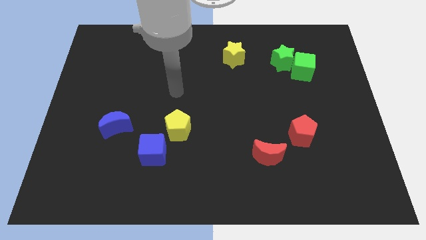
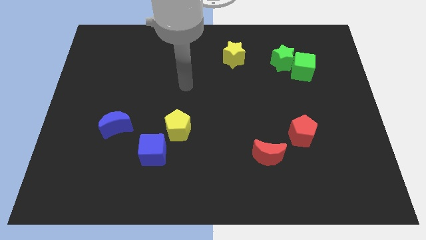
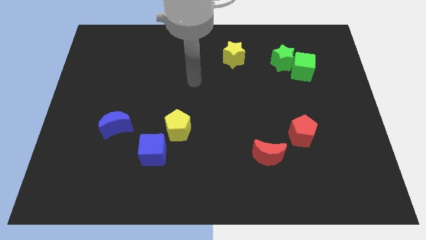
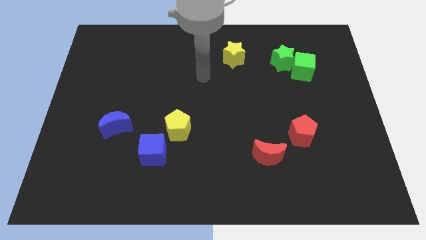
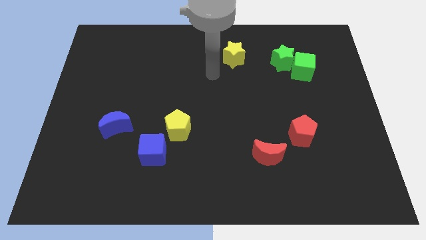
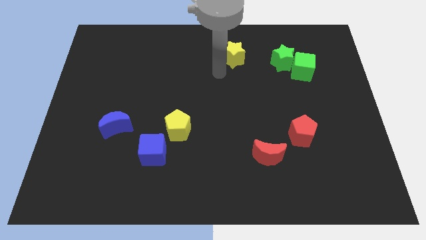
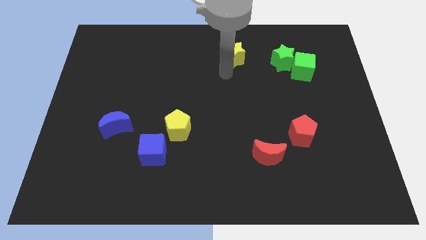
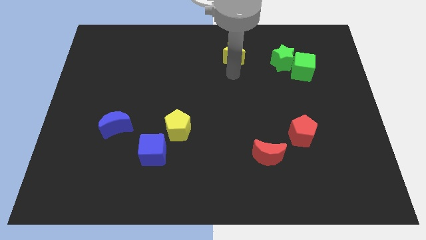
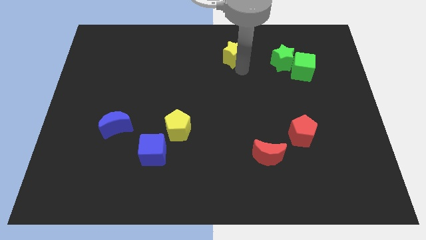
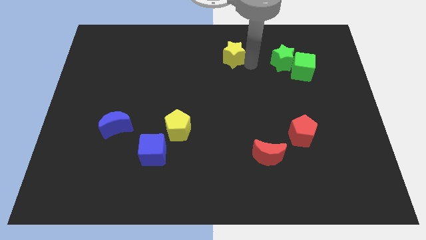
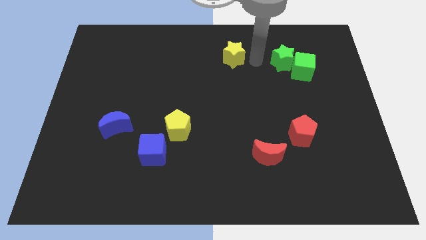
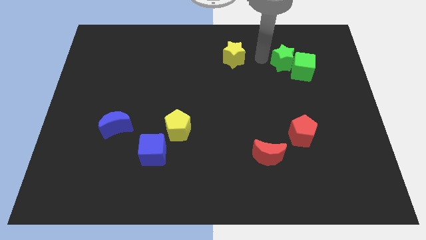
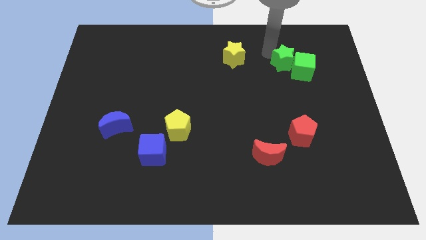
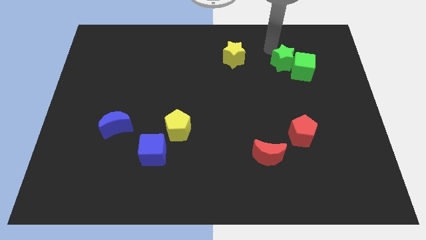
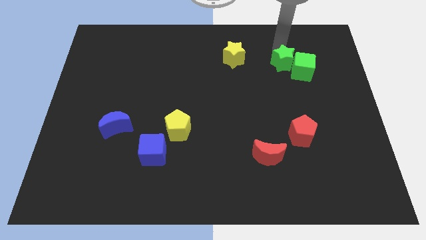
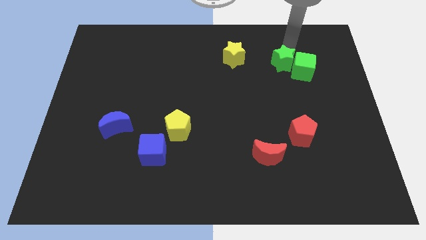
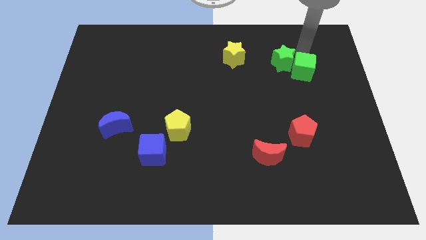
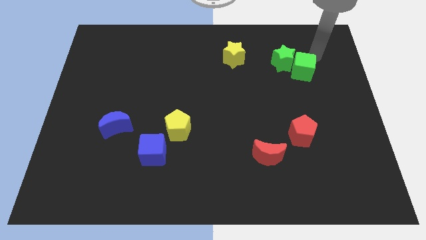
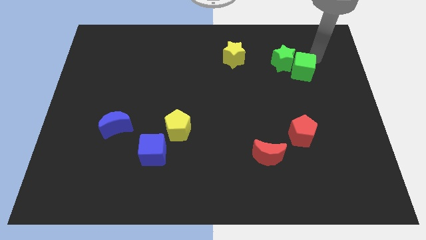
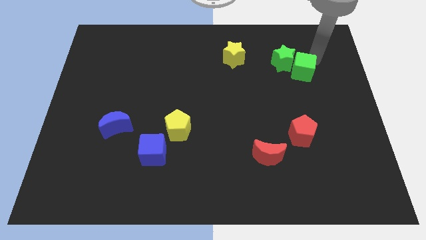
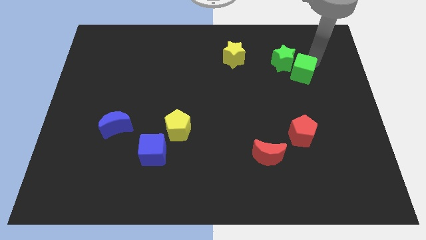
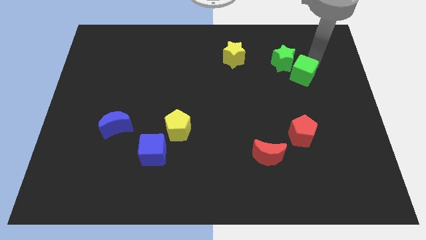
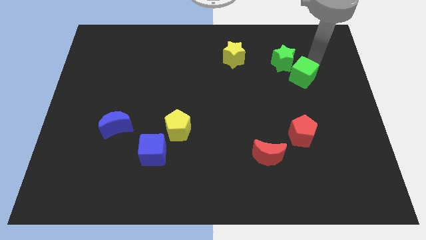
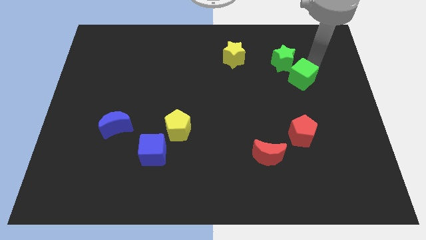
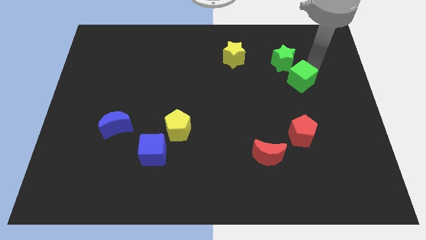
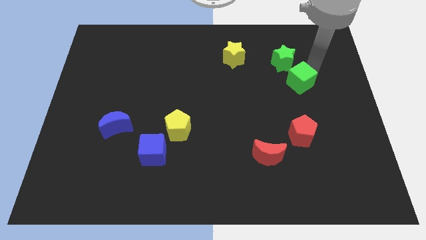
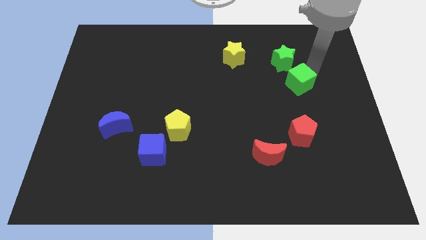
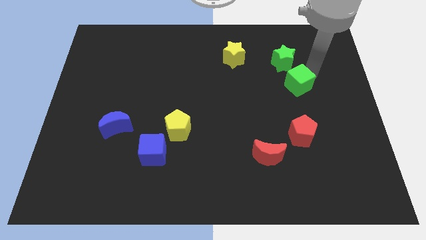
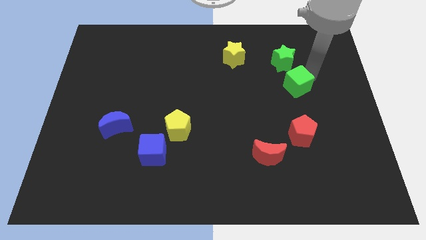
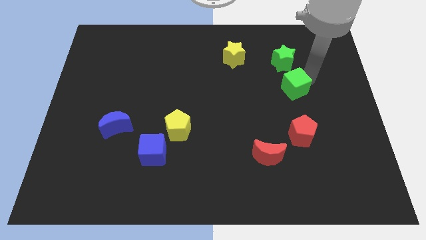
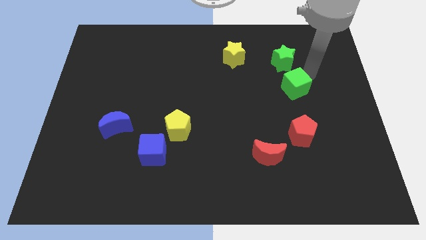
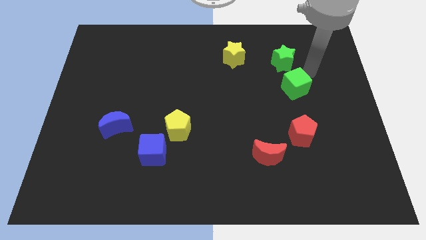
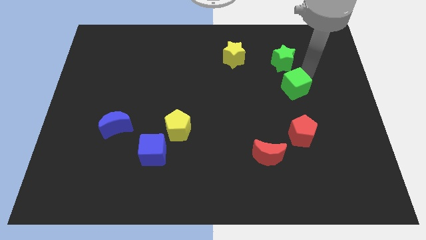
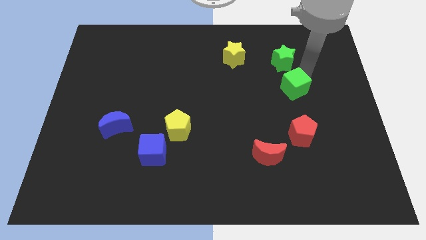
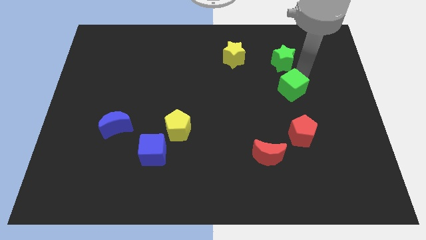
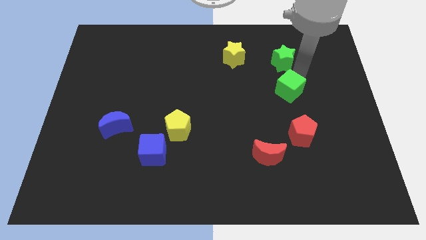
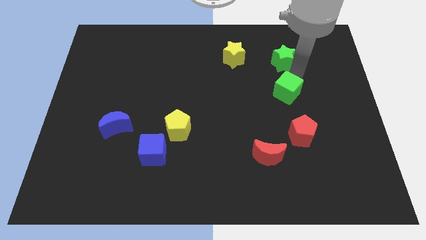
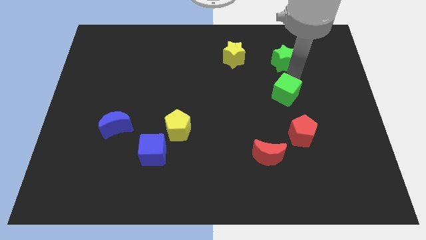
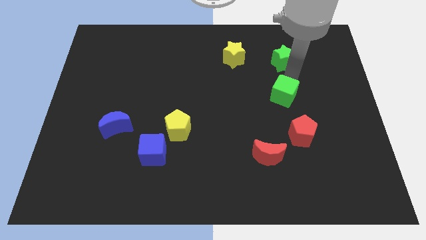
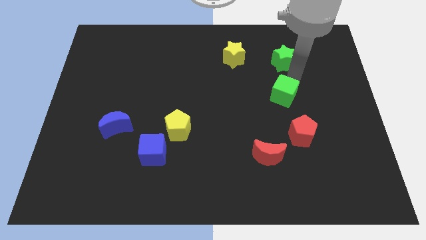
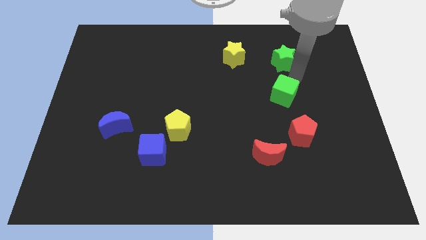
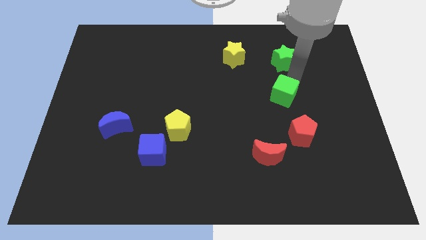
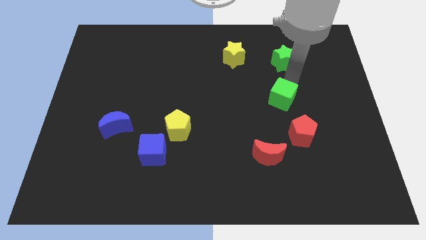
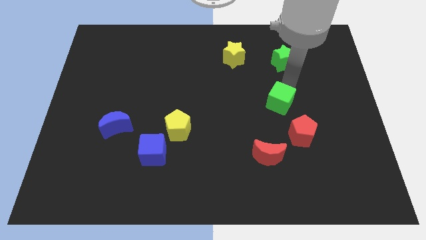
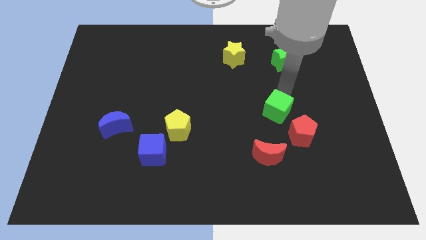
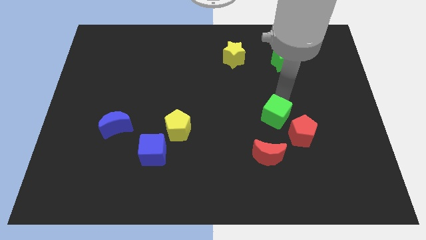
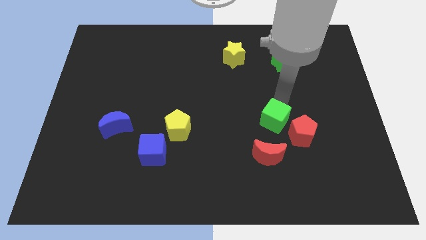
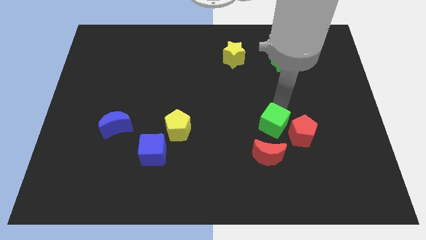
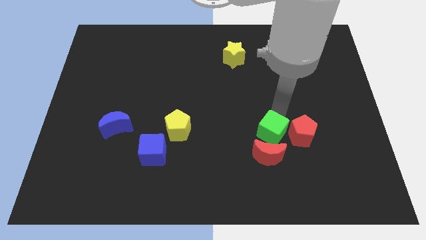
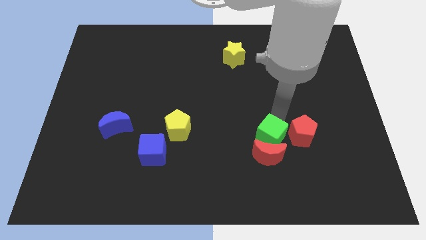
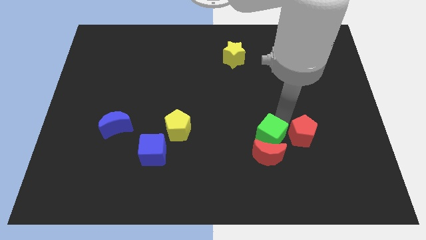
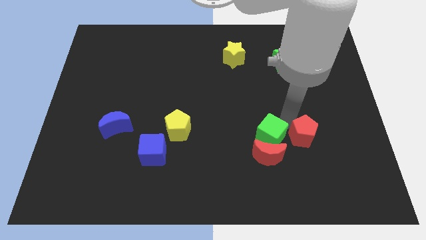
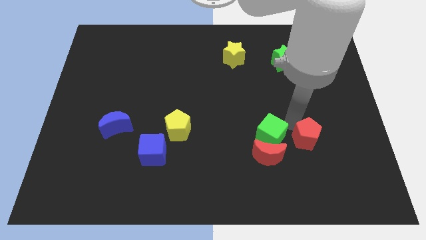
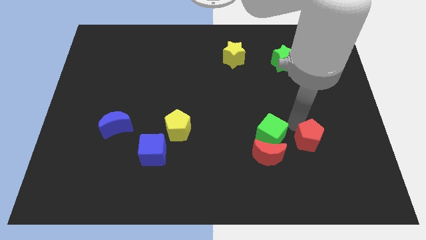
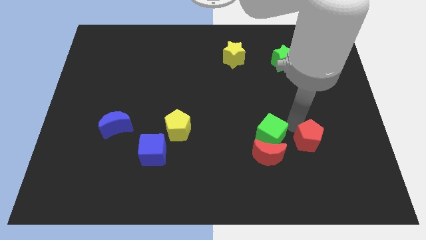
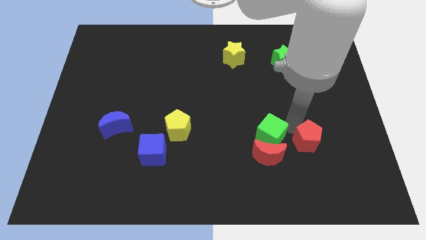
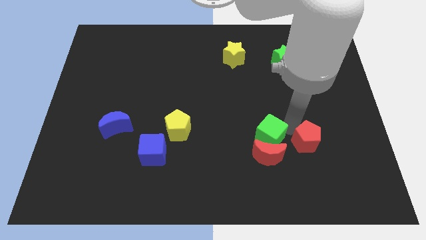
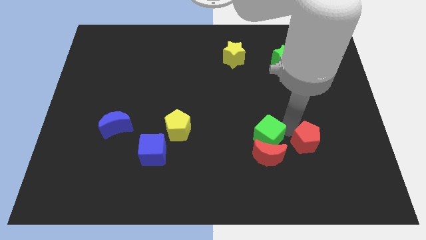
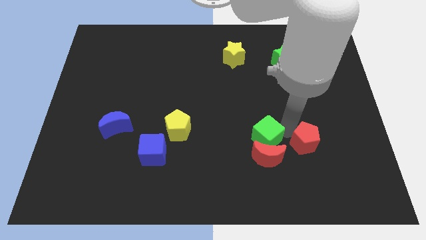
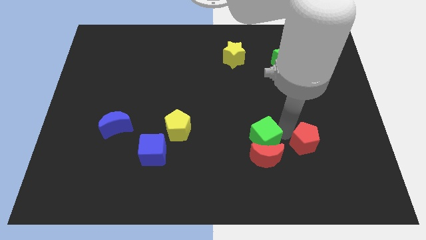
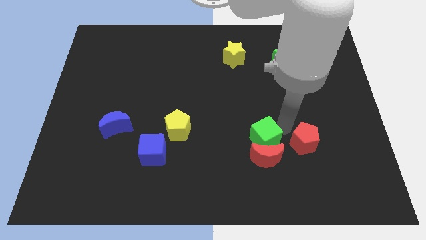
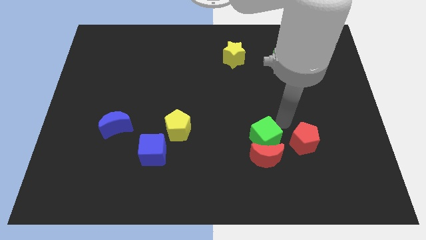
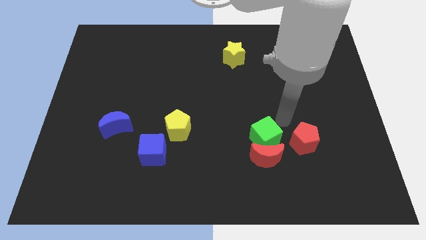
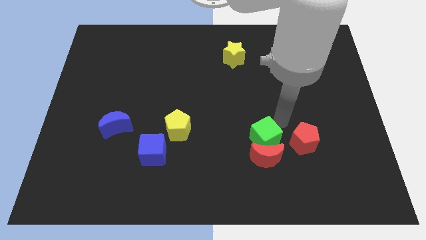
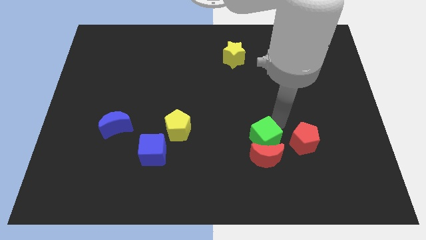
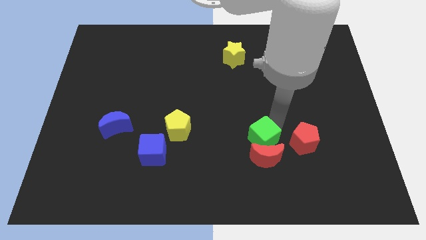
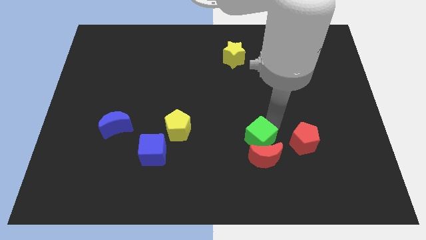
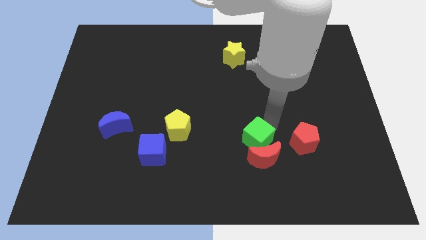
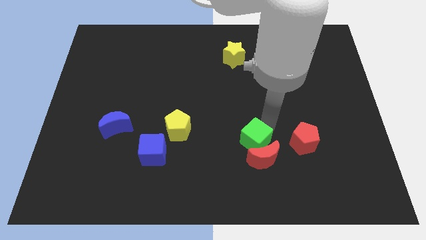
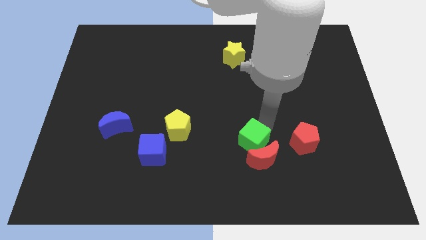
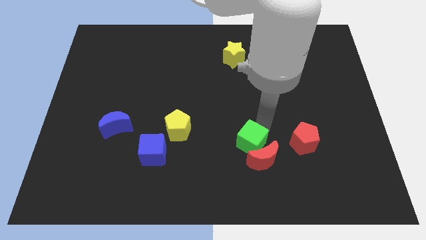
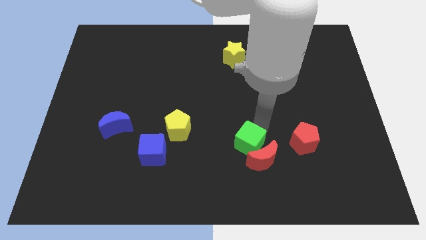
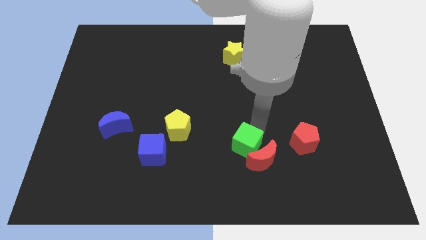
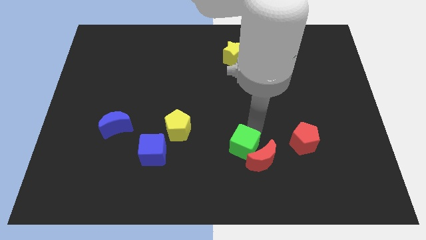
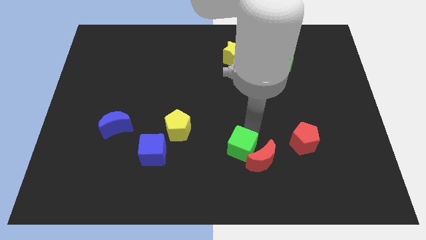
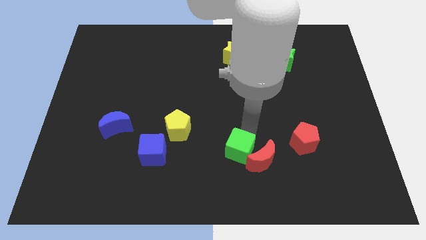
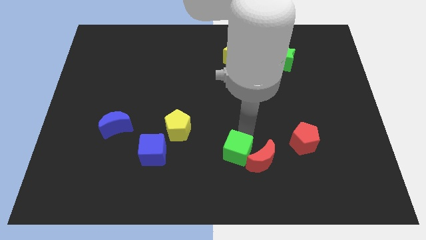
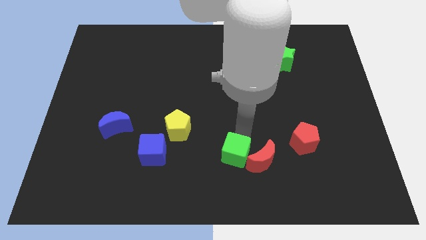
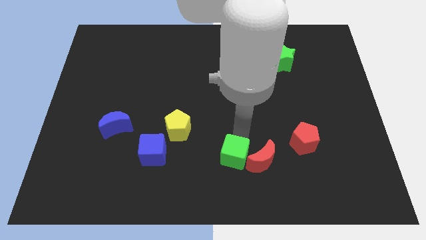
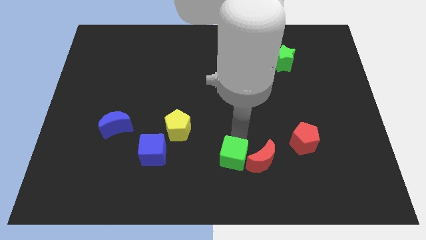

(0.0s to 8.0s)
move the green cube to the bottom side

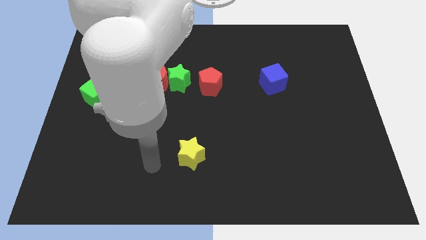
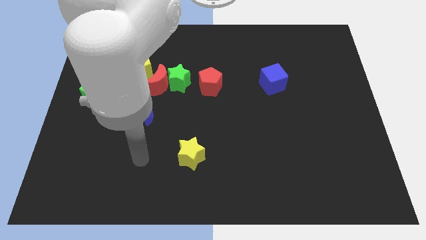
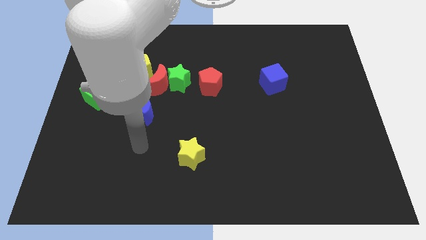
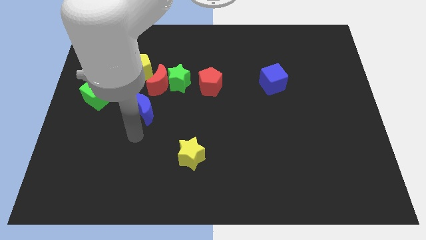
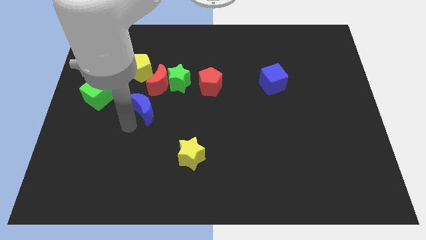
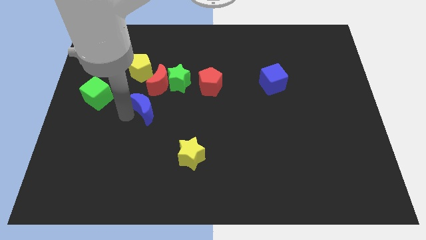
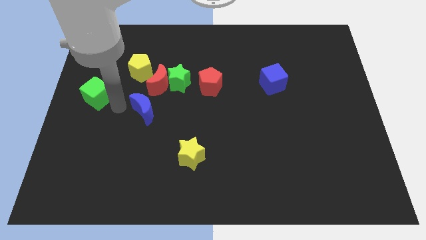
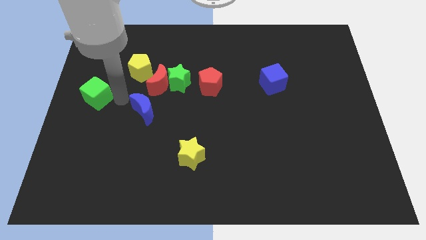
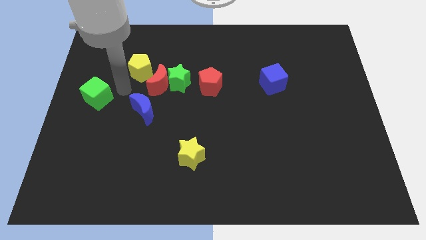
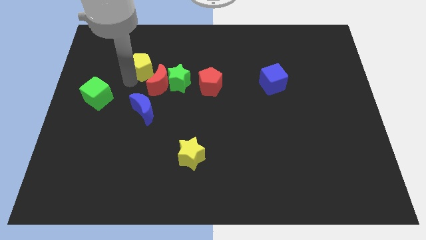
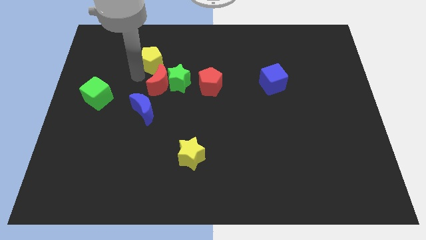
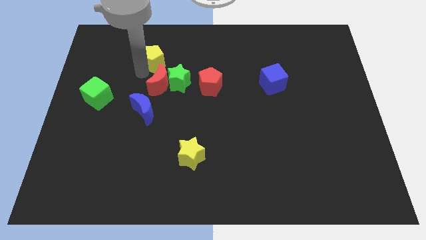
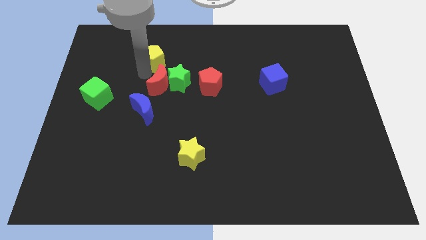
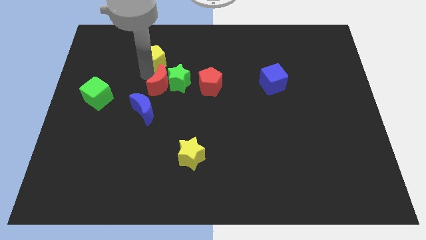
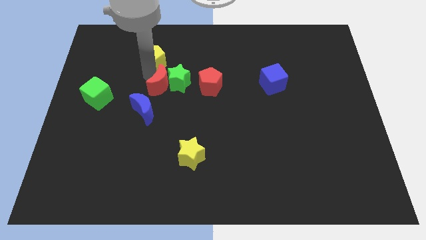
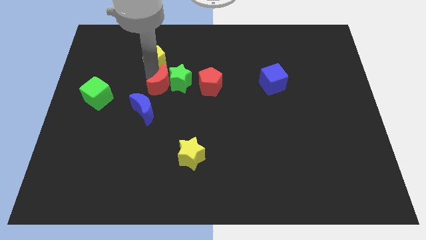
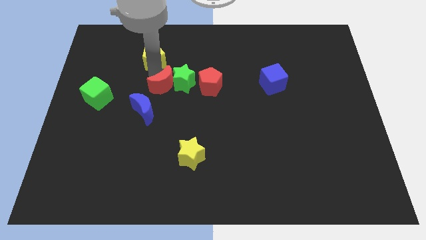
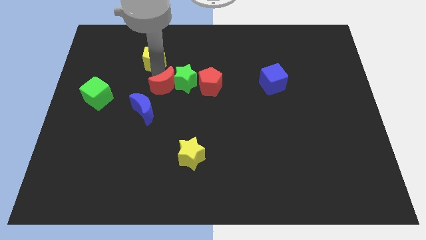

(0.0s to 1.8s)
move the red moon to the center
